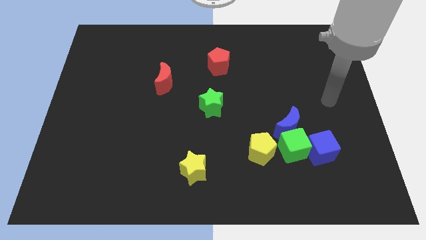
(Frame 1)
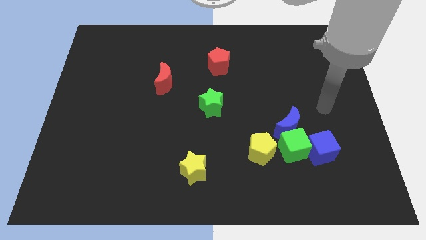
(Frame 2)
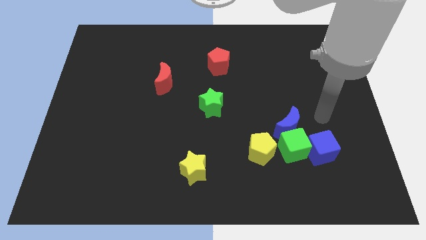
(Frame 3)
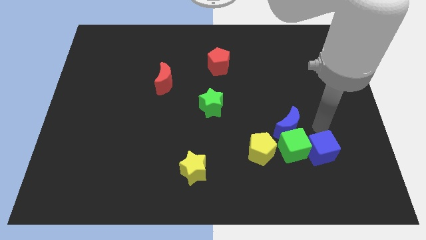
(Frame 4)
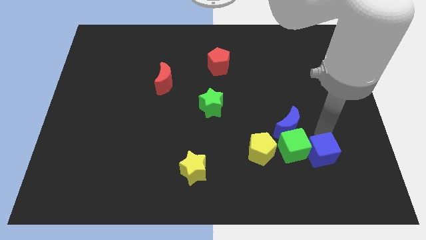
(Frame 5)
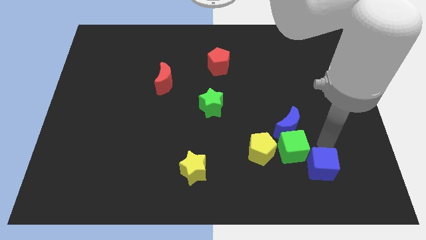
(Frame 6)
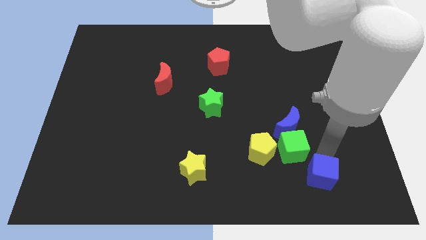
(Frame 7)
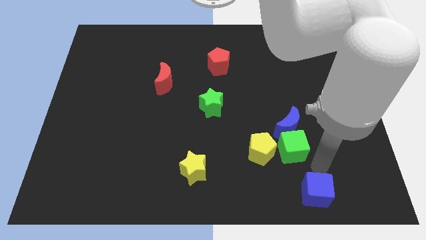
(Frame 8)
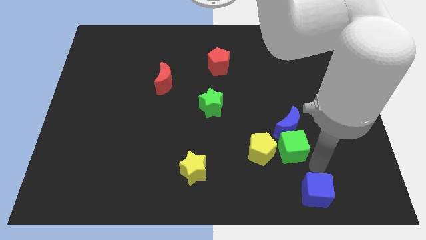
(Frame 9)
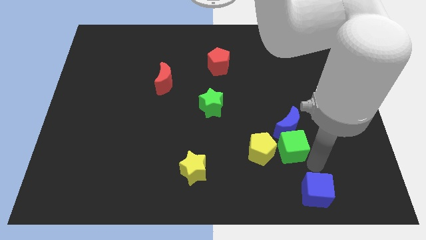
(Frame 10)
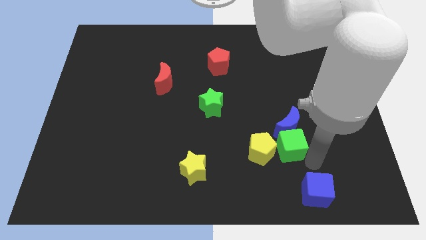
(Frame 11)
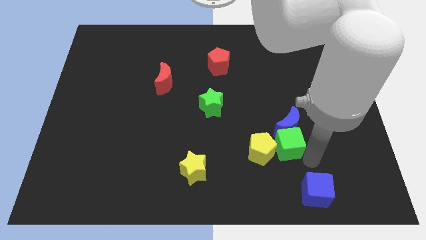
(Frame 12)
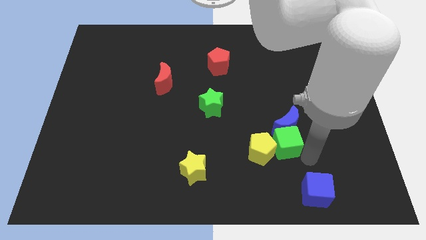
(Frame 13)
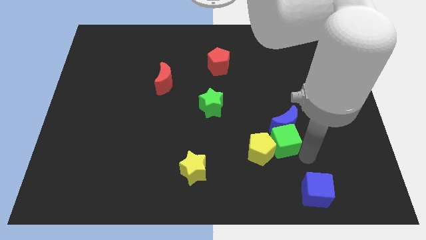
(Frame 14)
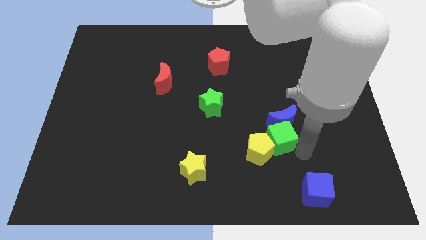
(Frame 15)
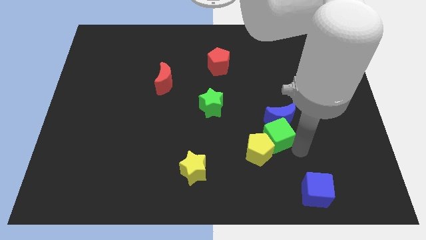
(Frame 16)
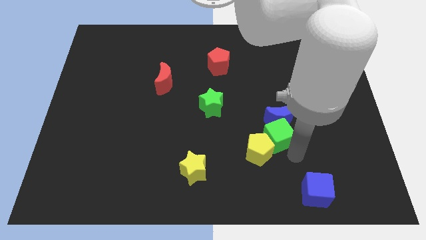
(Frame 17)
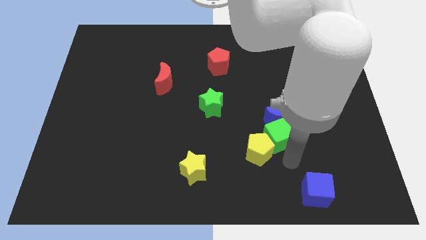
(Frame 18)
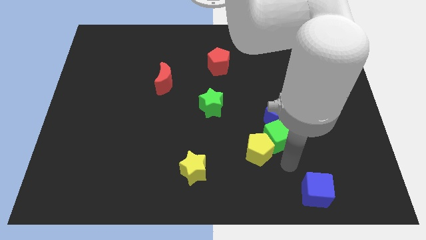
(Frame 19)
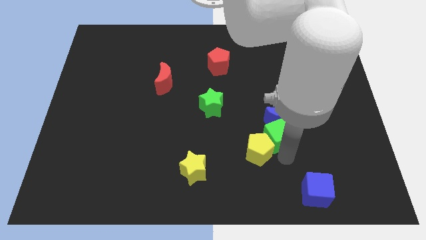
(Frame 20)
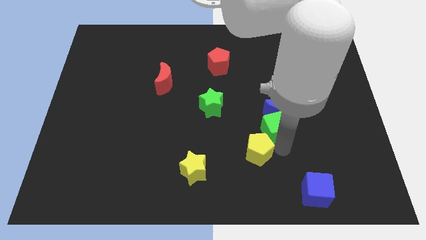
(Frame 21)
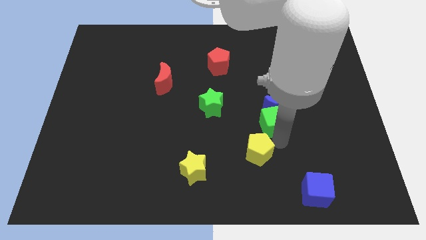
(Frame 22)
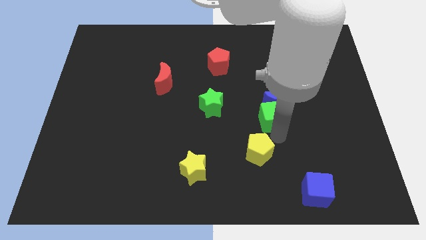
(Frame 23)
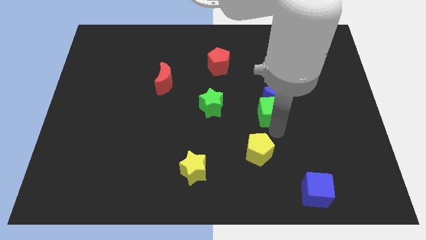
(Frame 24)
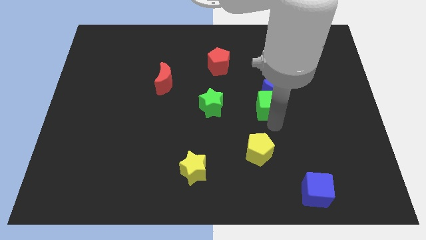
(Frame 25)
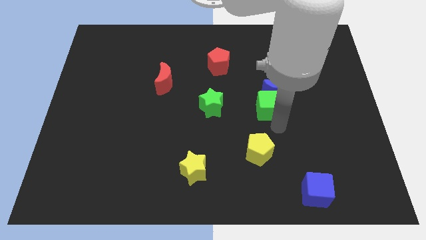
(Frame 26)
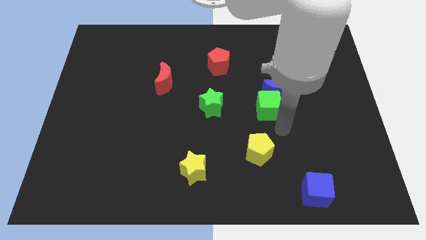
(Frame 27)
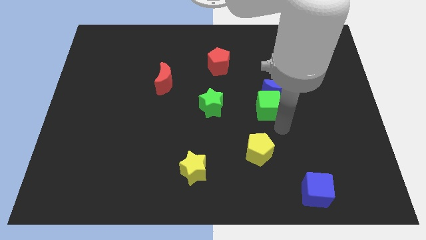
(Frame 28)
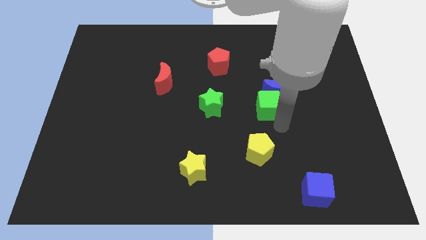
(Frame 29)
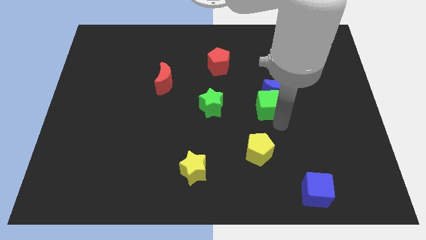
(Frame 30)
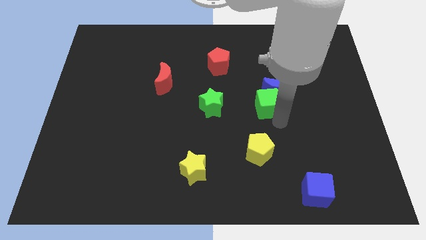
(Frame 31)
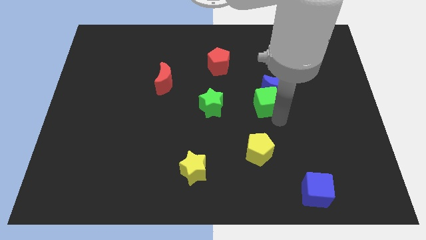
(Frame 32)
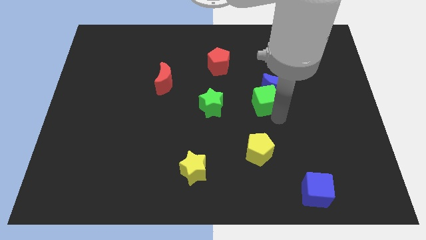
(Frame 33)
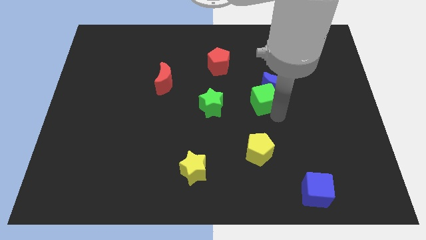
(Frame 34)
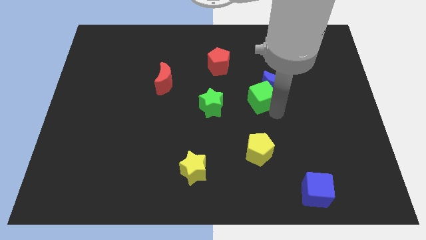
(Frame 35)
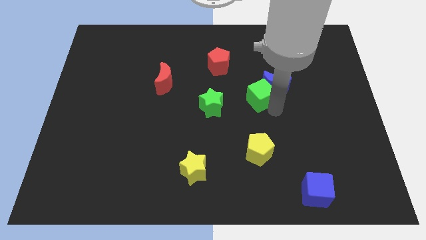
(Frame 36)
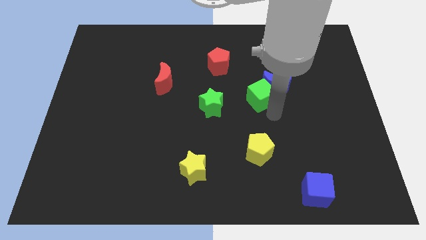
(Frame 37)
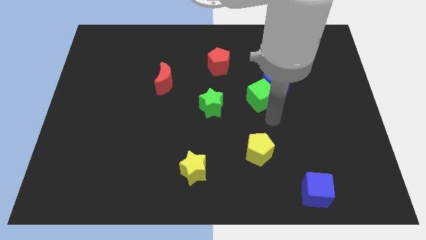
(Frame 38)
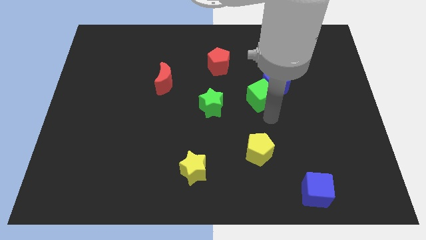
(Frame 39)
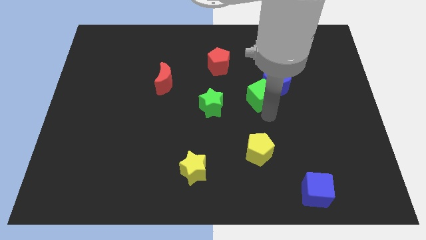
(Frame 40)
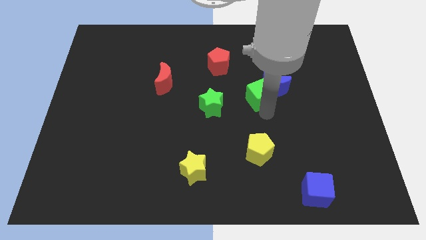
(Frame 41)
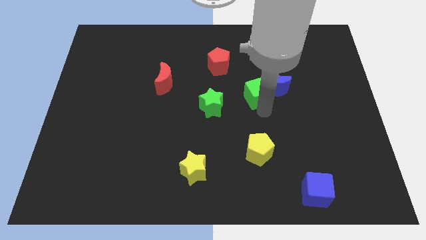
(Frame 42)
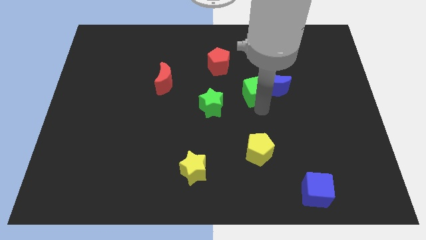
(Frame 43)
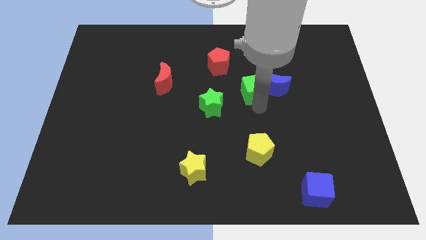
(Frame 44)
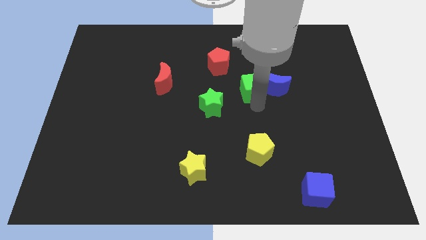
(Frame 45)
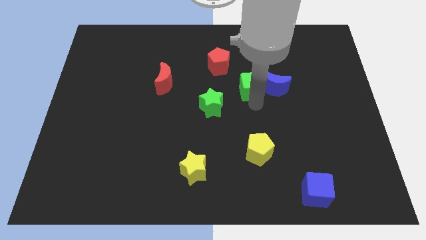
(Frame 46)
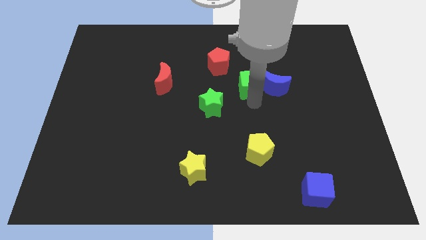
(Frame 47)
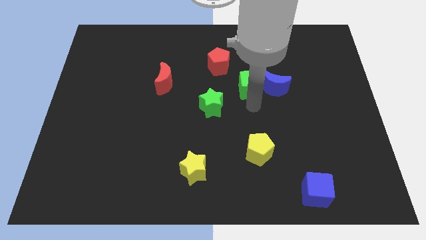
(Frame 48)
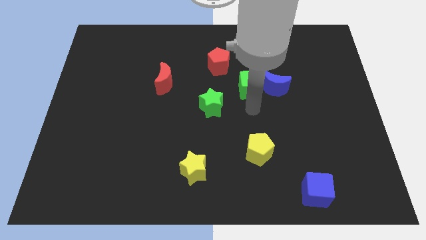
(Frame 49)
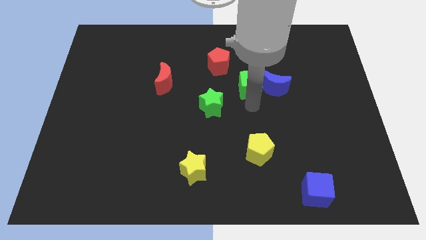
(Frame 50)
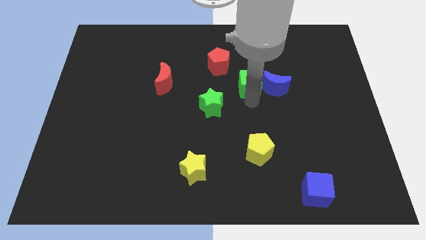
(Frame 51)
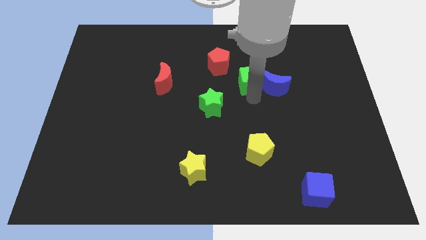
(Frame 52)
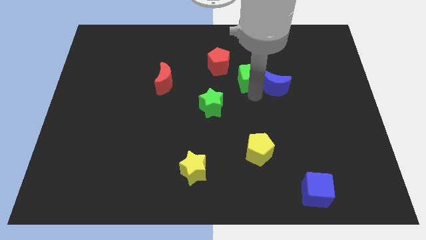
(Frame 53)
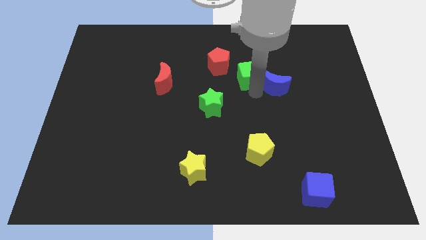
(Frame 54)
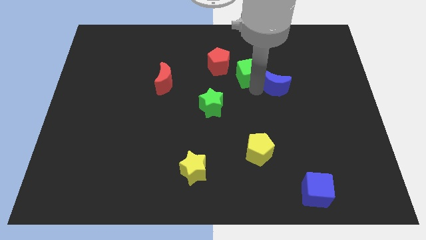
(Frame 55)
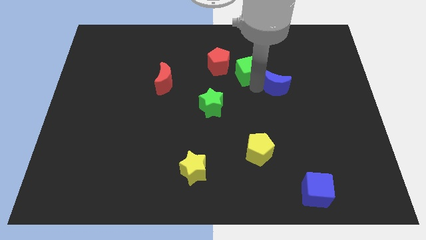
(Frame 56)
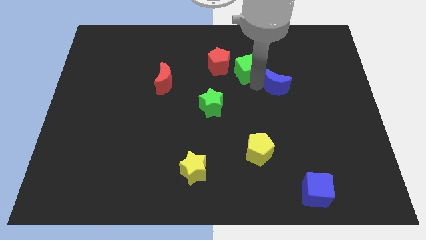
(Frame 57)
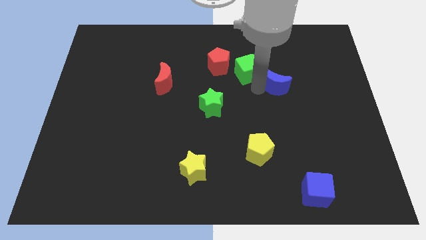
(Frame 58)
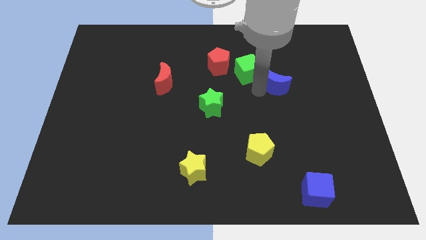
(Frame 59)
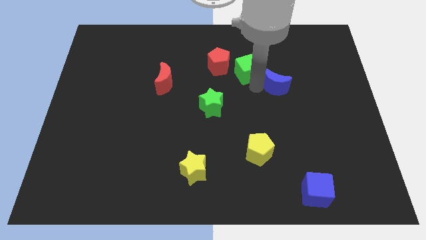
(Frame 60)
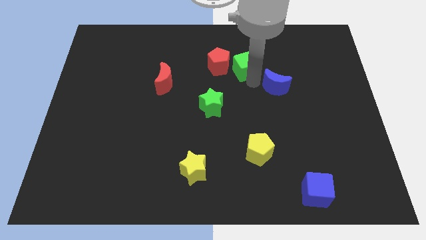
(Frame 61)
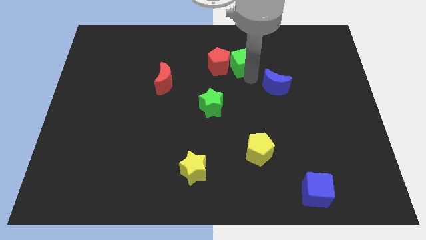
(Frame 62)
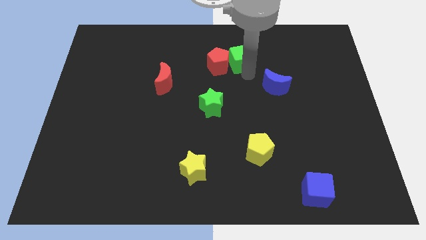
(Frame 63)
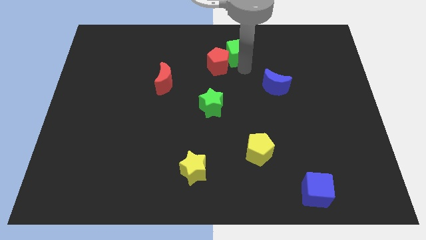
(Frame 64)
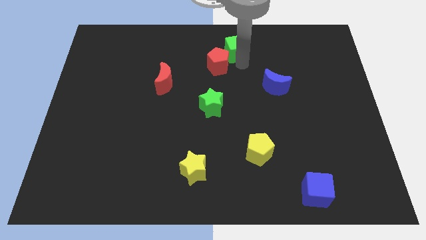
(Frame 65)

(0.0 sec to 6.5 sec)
move the green cube to the top side

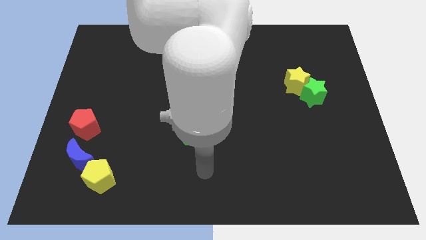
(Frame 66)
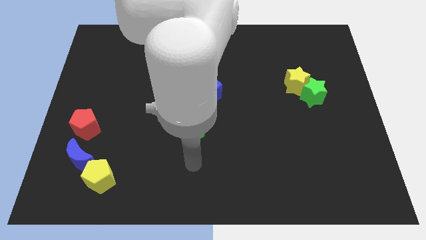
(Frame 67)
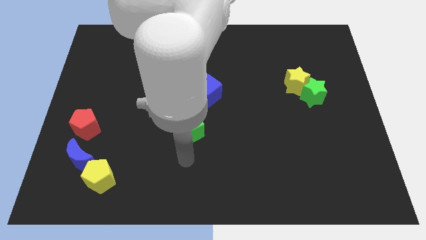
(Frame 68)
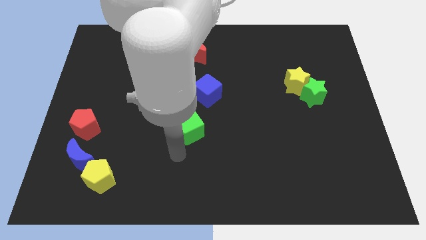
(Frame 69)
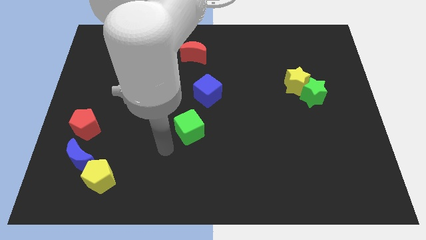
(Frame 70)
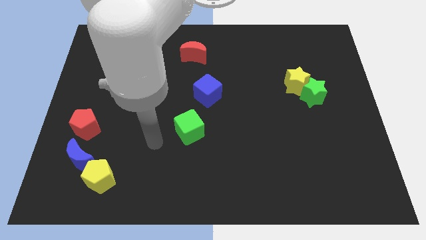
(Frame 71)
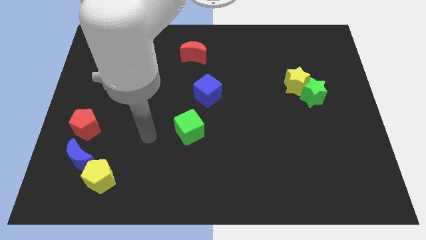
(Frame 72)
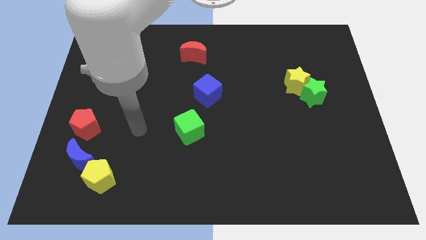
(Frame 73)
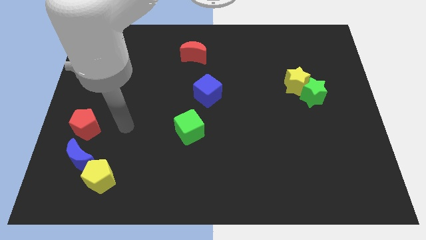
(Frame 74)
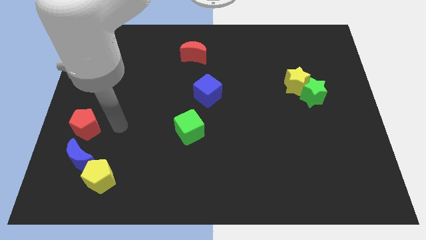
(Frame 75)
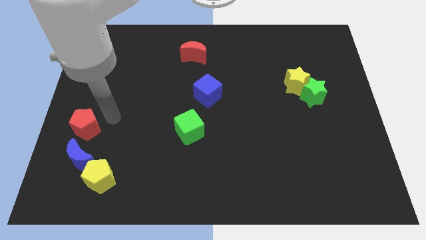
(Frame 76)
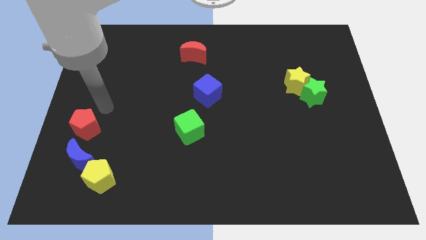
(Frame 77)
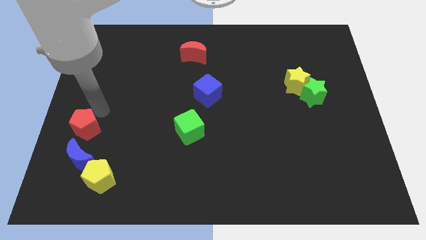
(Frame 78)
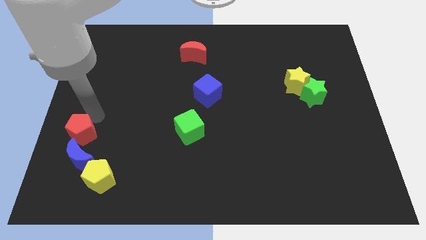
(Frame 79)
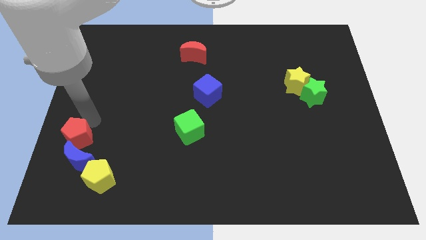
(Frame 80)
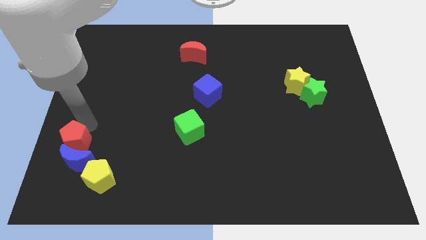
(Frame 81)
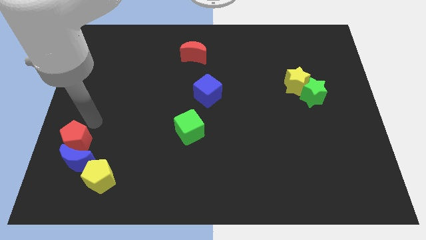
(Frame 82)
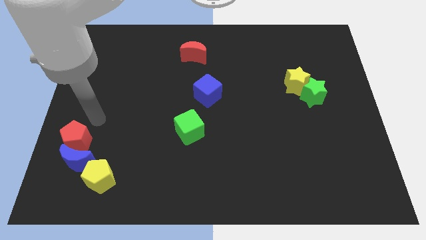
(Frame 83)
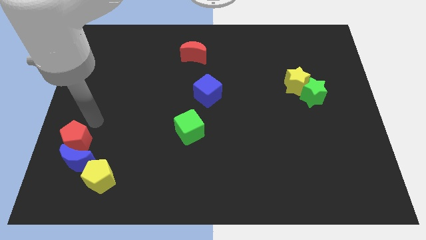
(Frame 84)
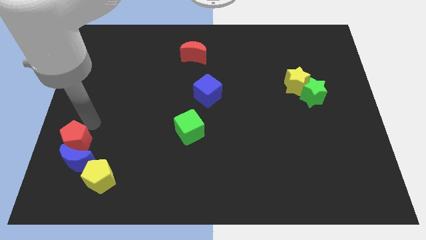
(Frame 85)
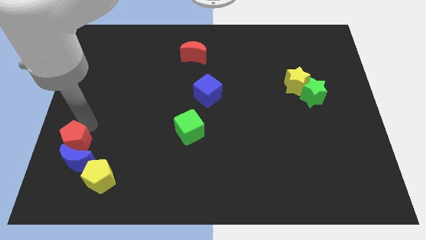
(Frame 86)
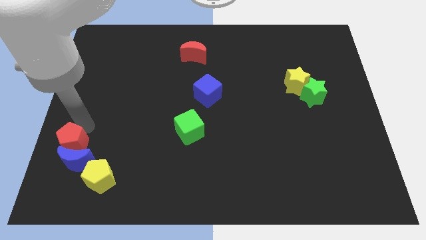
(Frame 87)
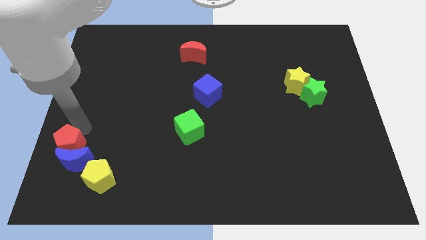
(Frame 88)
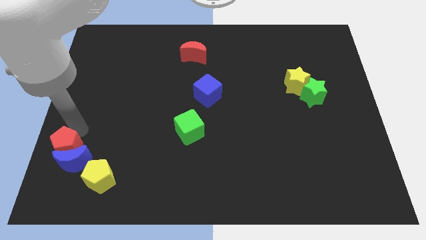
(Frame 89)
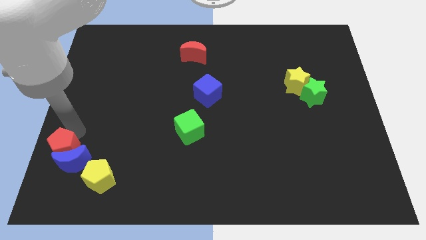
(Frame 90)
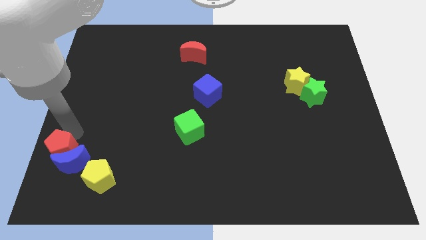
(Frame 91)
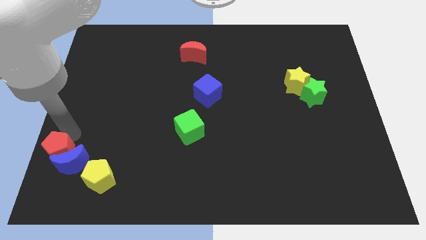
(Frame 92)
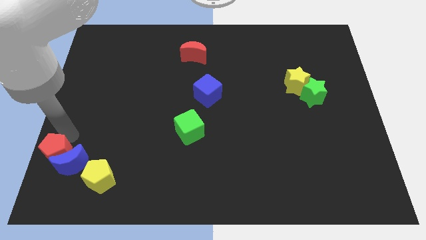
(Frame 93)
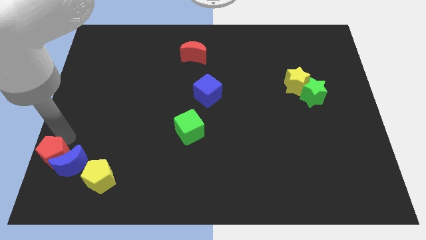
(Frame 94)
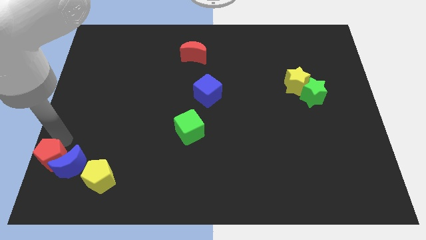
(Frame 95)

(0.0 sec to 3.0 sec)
move the red pentagon to the lower left corner
